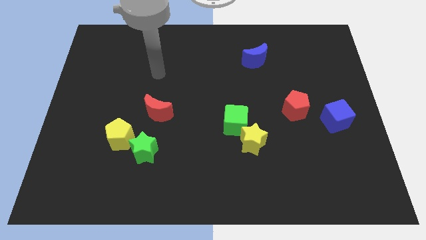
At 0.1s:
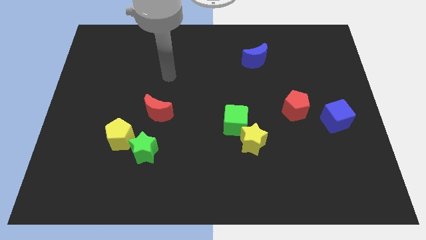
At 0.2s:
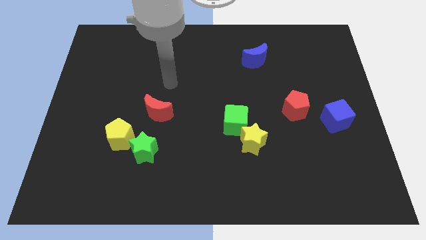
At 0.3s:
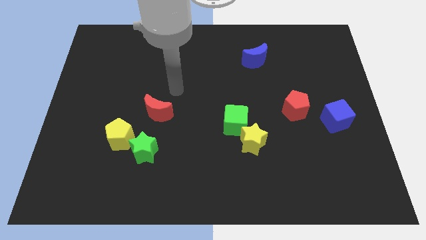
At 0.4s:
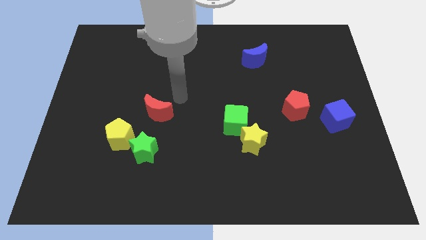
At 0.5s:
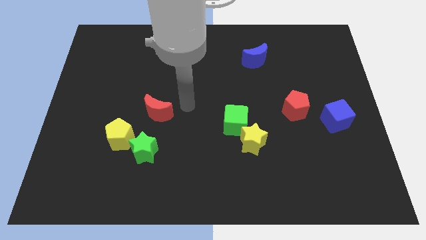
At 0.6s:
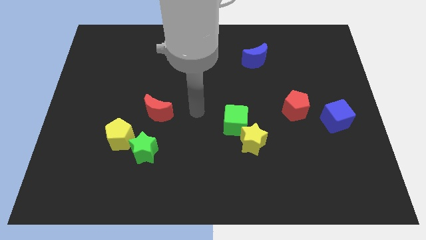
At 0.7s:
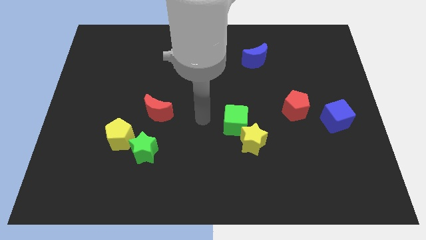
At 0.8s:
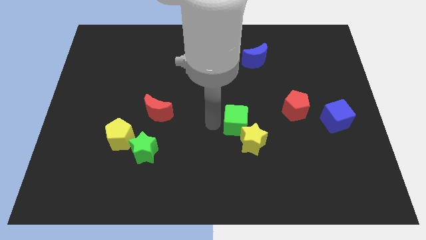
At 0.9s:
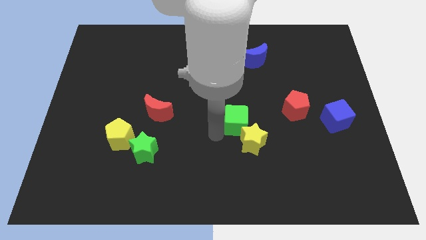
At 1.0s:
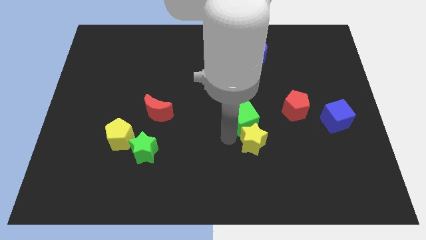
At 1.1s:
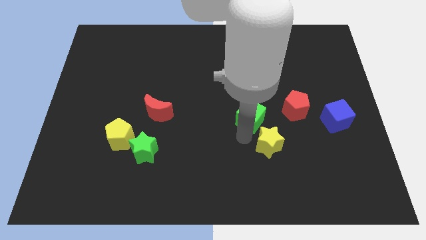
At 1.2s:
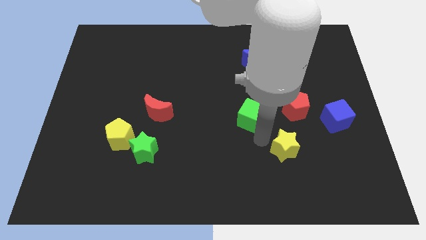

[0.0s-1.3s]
separate the green cube from the yellow star

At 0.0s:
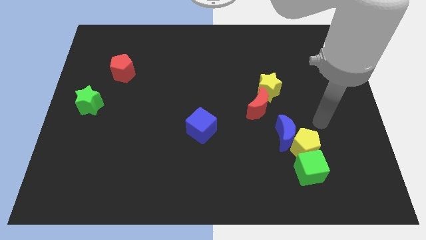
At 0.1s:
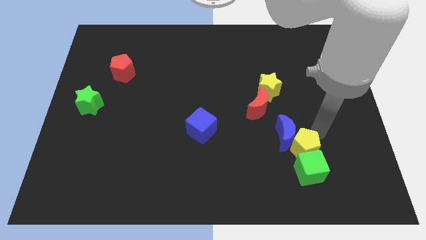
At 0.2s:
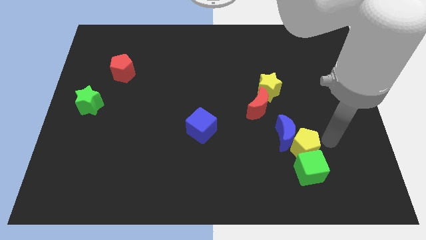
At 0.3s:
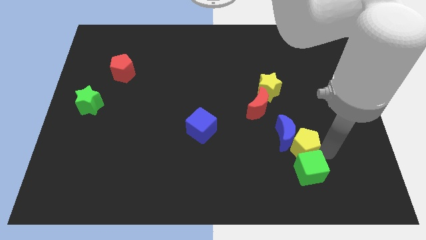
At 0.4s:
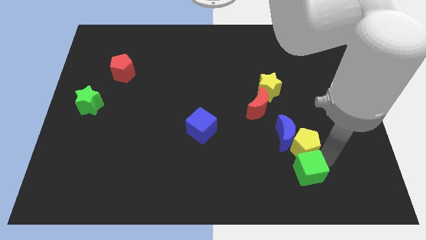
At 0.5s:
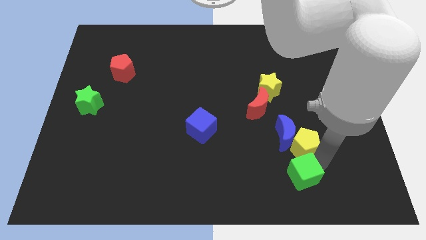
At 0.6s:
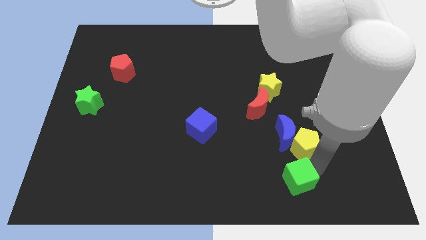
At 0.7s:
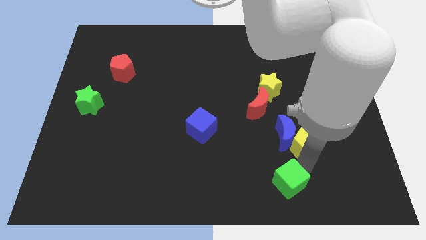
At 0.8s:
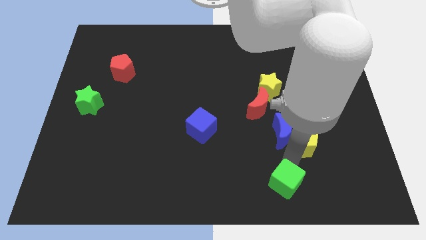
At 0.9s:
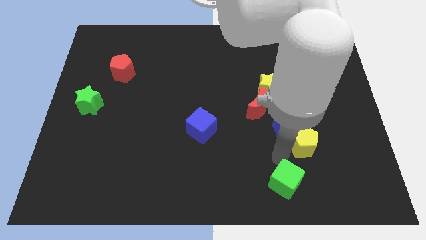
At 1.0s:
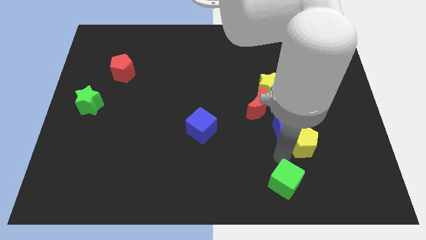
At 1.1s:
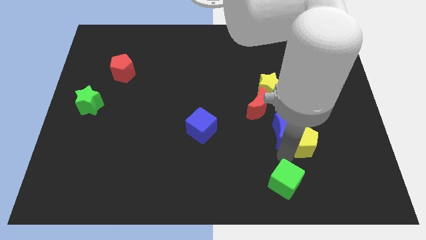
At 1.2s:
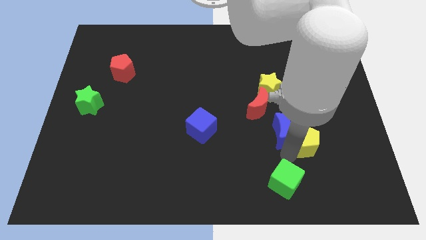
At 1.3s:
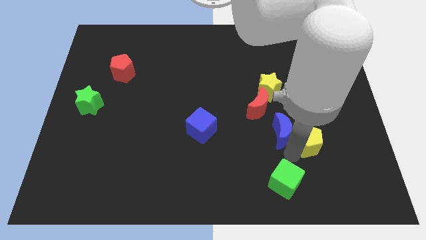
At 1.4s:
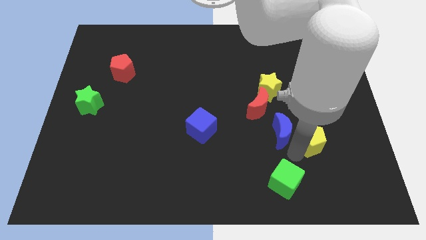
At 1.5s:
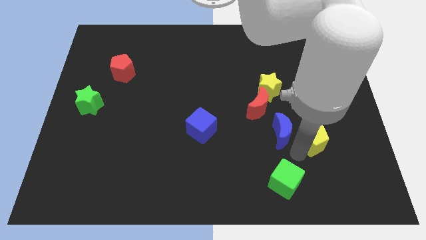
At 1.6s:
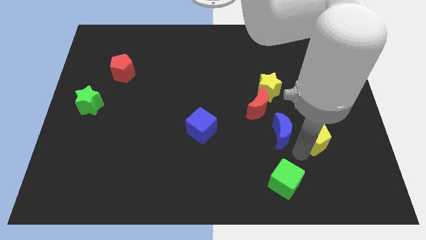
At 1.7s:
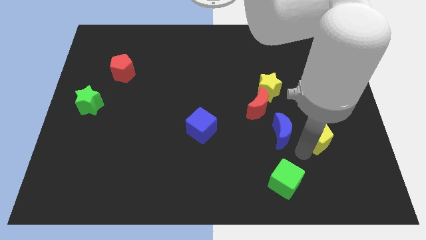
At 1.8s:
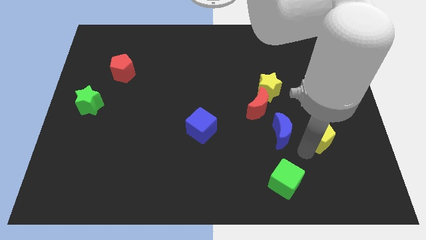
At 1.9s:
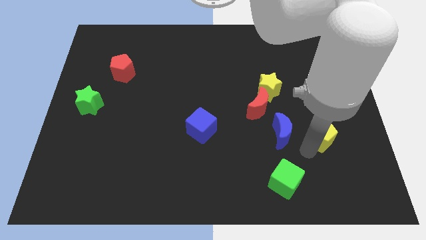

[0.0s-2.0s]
separate the yellow pentagon from the blue moon and green cube

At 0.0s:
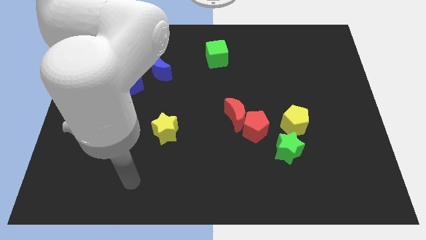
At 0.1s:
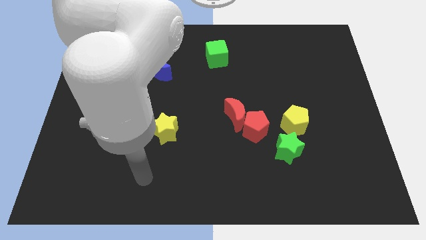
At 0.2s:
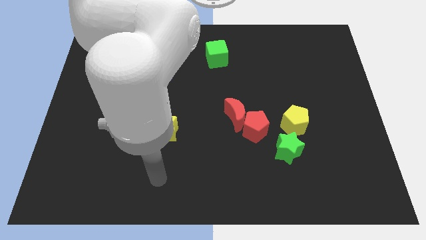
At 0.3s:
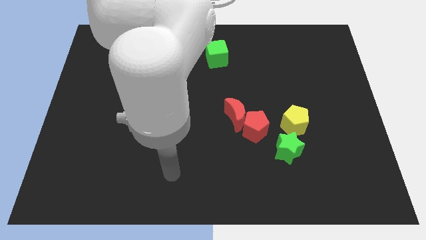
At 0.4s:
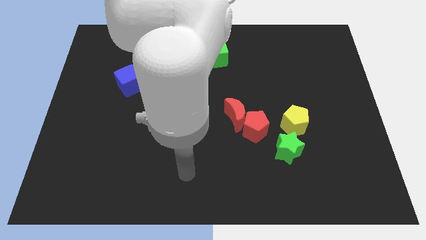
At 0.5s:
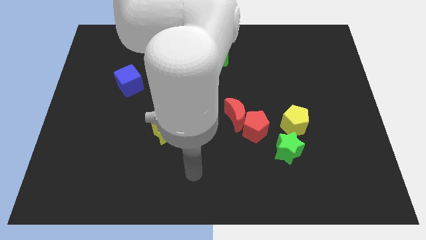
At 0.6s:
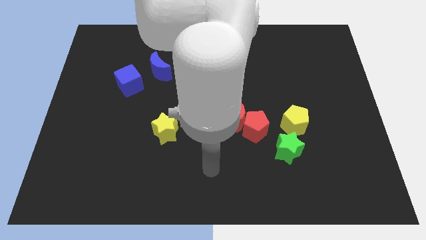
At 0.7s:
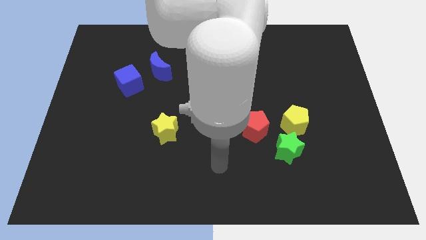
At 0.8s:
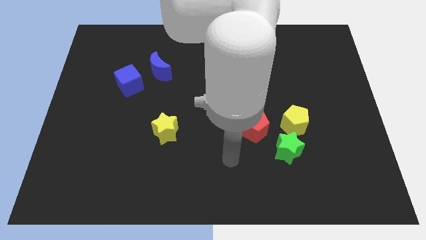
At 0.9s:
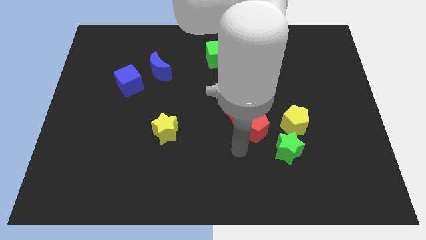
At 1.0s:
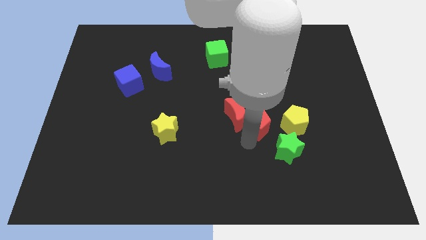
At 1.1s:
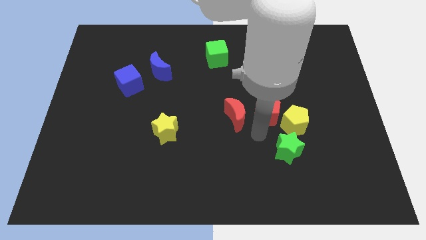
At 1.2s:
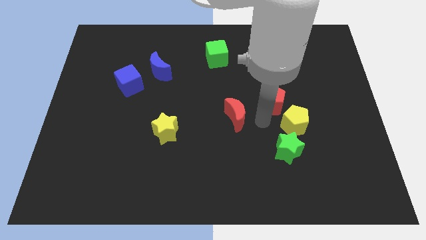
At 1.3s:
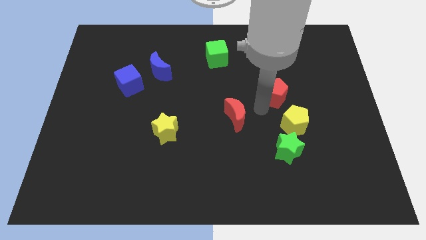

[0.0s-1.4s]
move the red moon away from the red pentagon

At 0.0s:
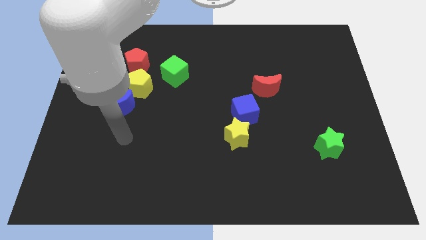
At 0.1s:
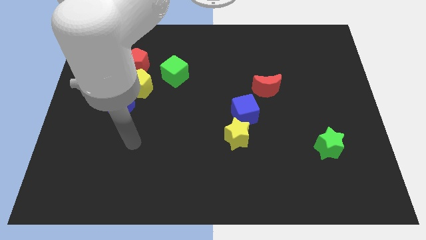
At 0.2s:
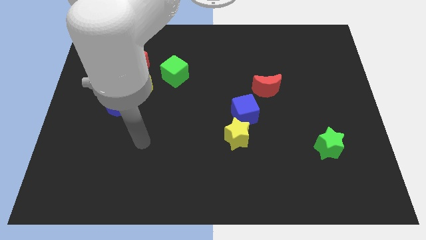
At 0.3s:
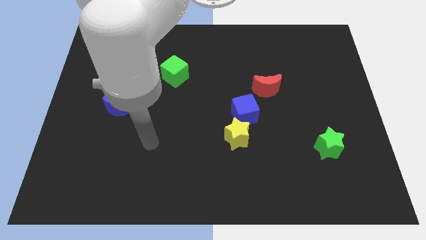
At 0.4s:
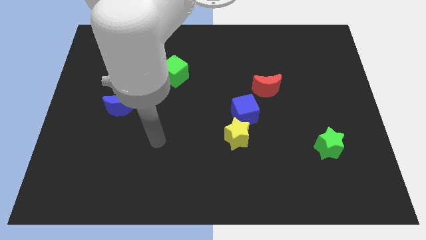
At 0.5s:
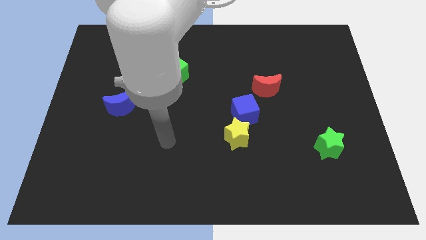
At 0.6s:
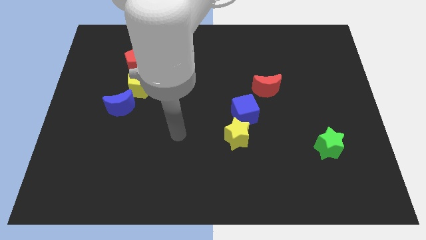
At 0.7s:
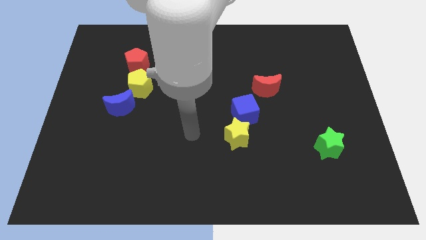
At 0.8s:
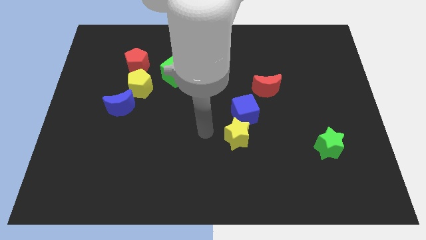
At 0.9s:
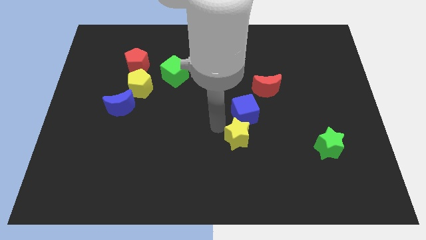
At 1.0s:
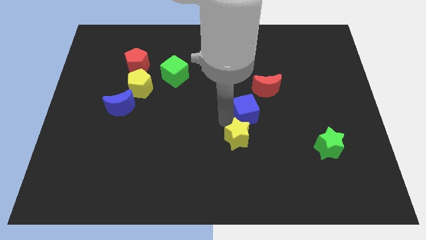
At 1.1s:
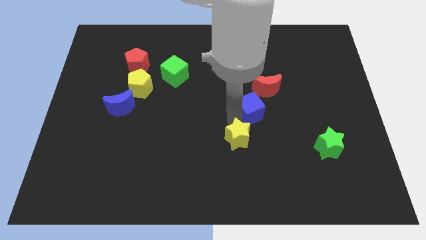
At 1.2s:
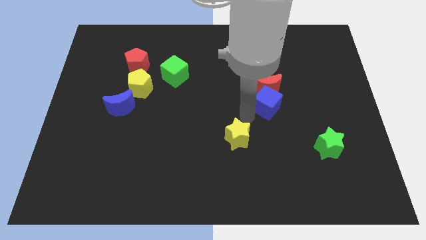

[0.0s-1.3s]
pull the yellow star apart from the blue cube

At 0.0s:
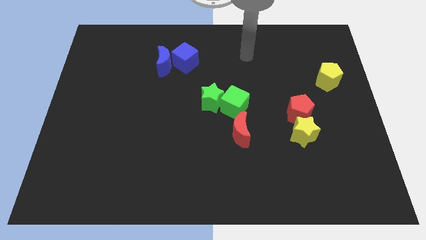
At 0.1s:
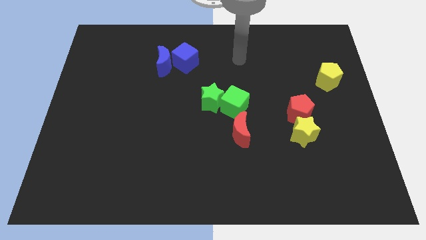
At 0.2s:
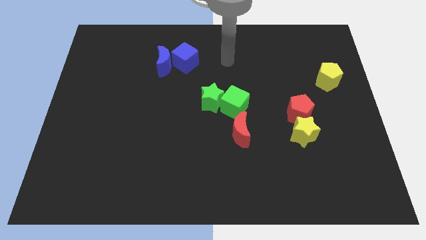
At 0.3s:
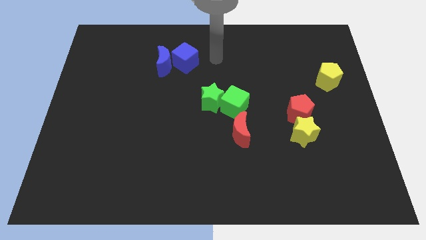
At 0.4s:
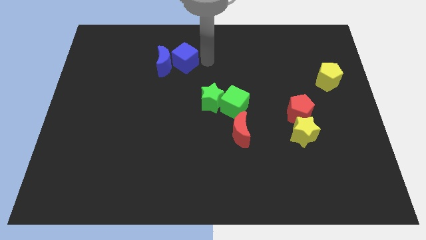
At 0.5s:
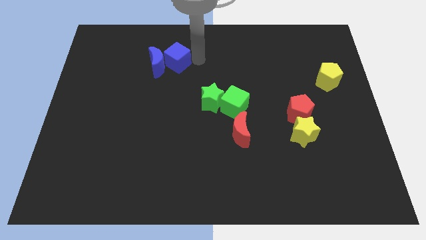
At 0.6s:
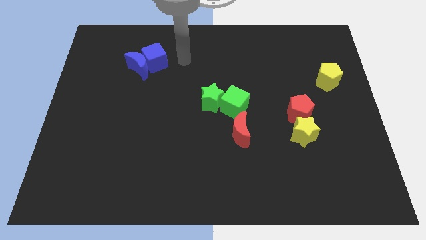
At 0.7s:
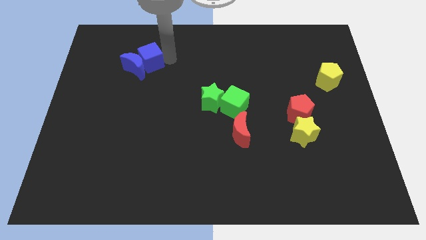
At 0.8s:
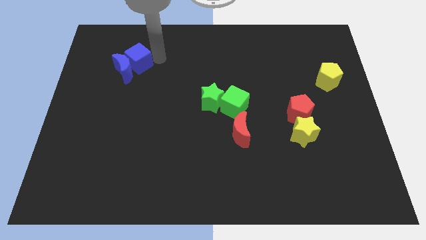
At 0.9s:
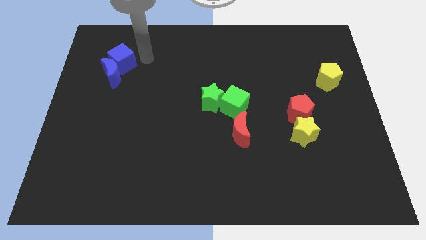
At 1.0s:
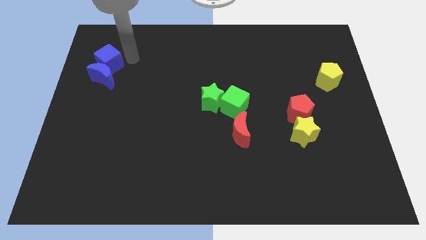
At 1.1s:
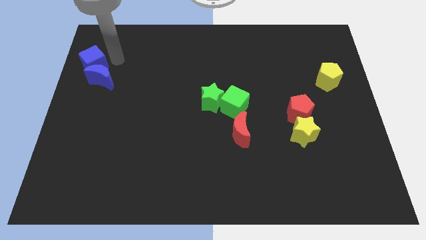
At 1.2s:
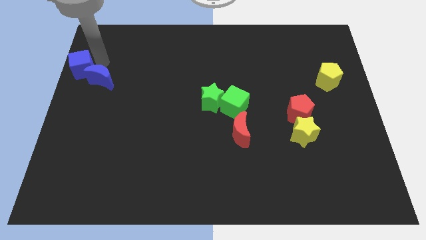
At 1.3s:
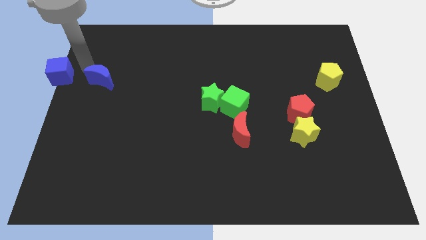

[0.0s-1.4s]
move the blue moon away from the blue cube

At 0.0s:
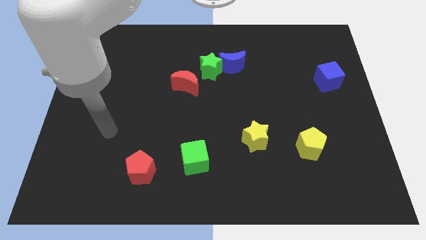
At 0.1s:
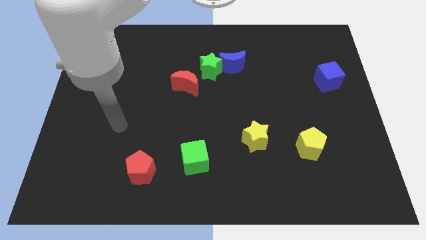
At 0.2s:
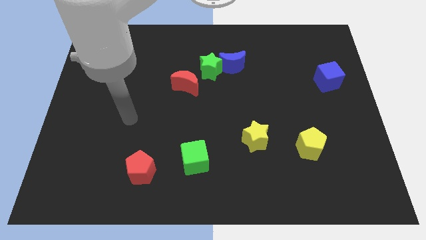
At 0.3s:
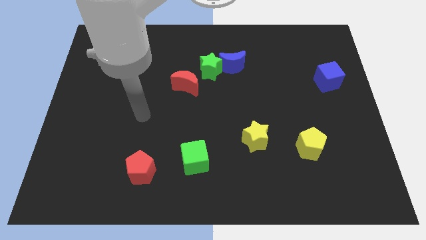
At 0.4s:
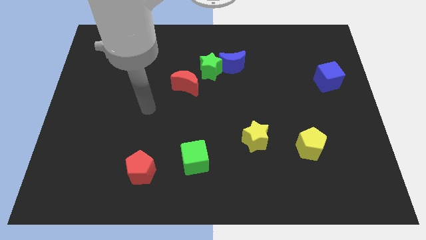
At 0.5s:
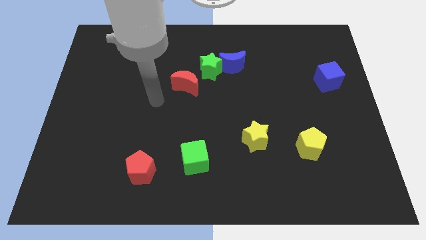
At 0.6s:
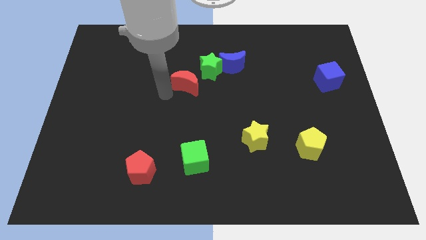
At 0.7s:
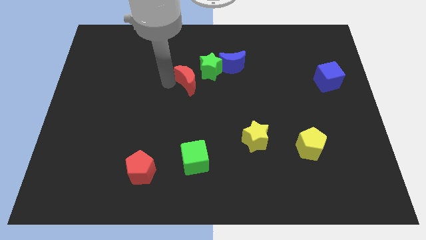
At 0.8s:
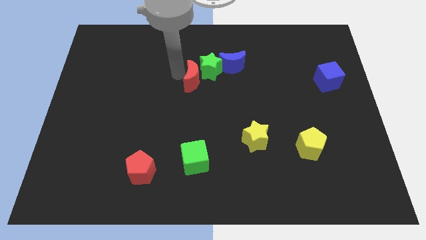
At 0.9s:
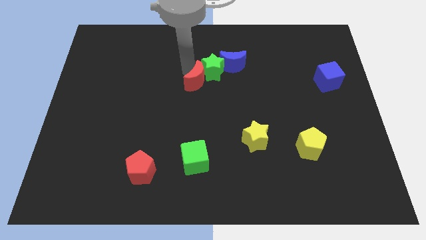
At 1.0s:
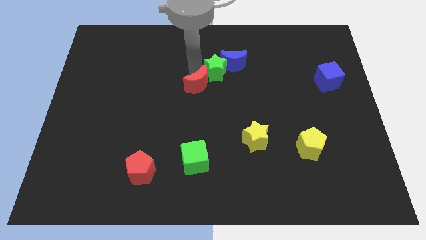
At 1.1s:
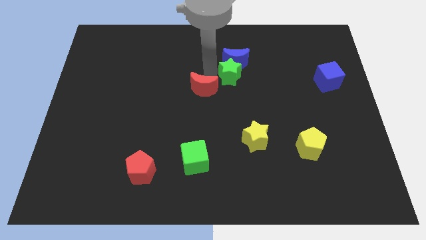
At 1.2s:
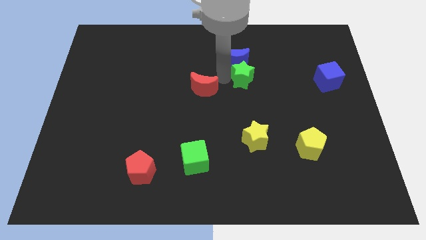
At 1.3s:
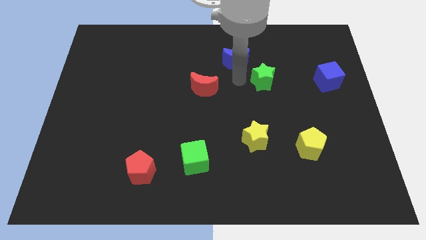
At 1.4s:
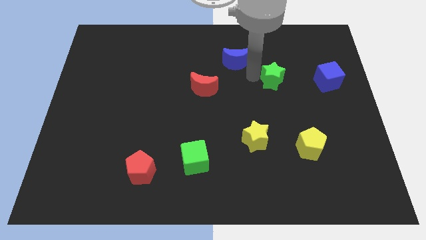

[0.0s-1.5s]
separate the blue moon from the green star

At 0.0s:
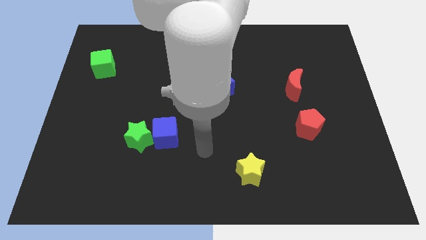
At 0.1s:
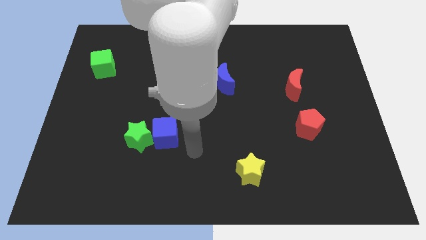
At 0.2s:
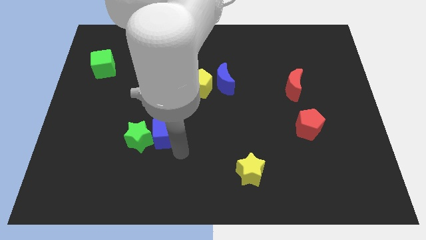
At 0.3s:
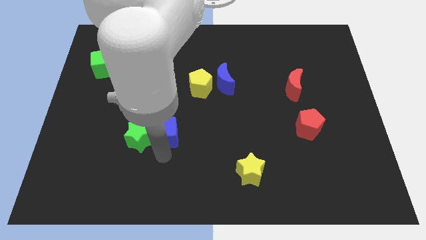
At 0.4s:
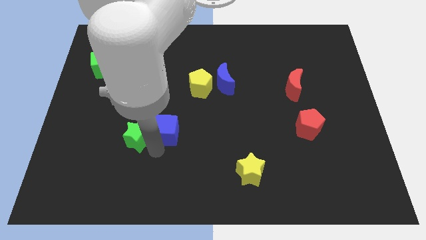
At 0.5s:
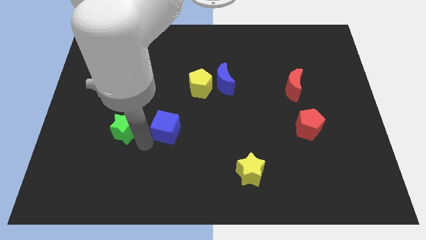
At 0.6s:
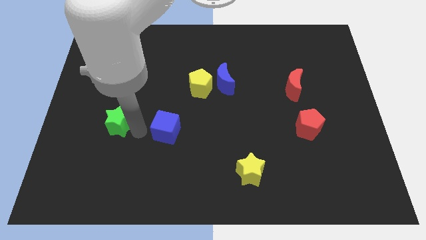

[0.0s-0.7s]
separate the blue cube from the green star
